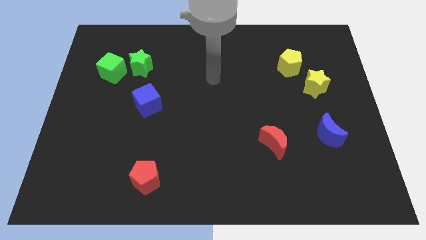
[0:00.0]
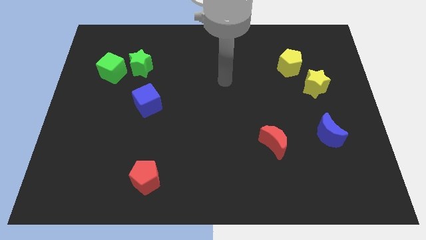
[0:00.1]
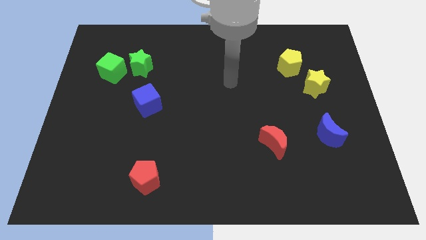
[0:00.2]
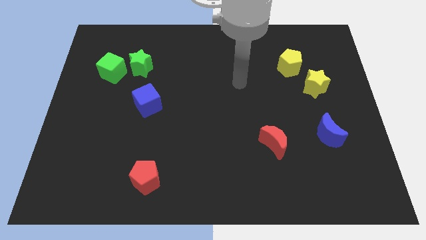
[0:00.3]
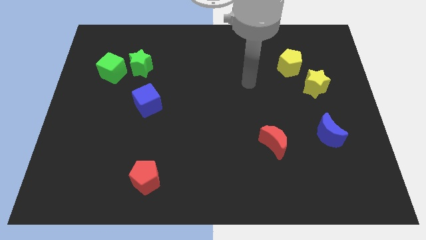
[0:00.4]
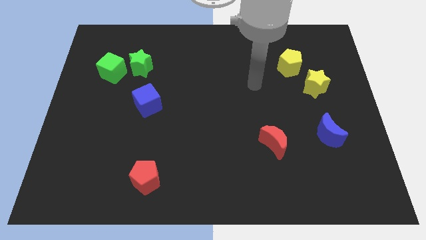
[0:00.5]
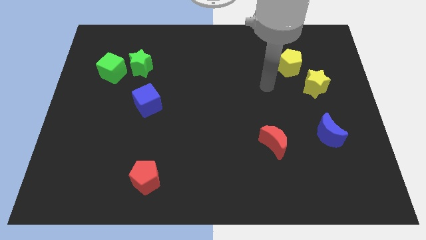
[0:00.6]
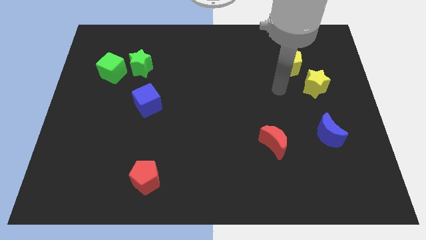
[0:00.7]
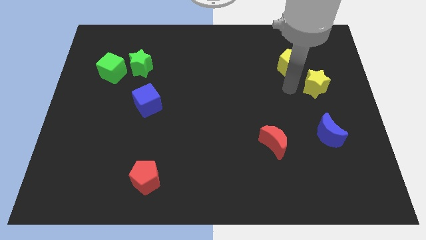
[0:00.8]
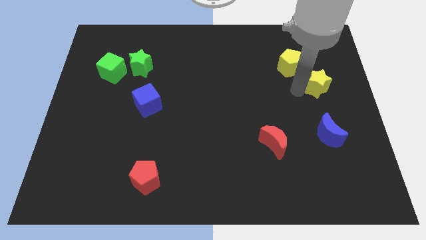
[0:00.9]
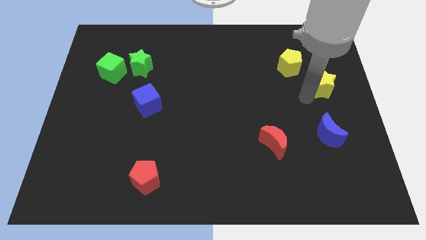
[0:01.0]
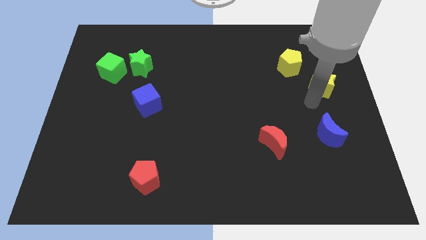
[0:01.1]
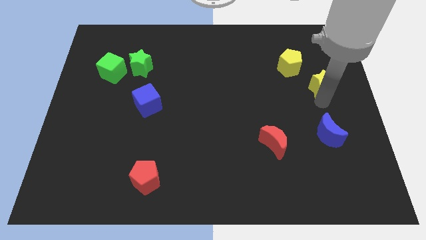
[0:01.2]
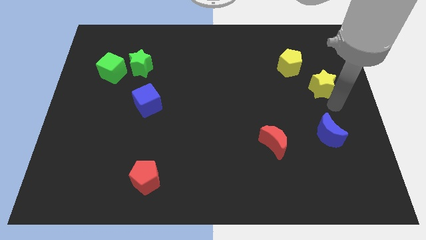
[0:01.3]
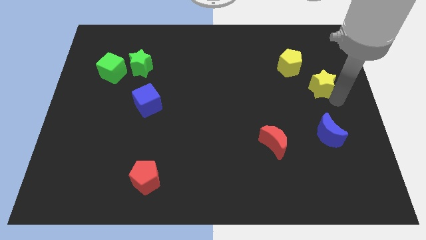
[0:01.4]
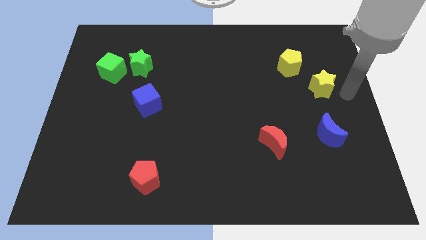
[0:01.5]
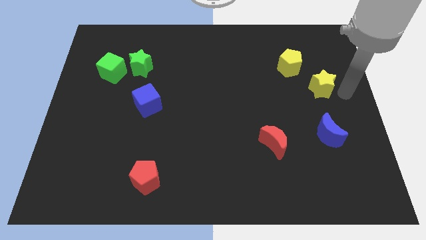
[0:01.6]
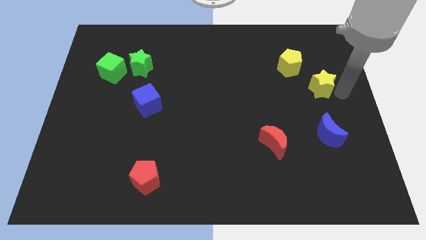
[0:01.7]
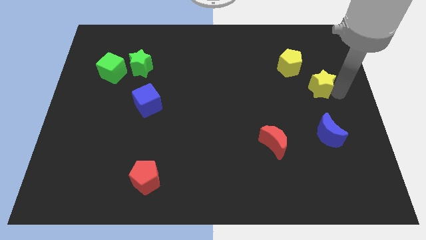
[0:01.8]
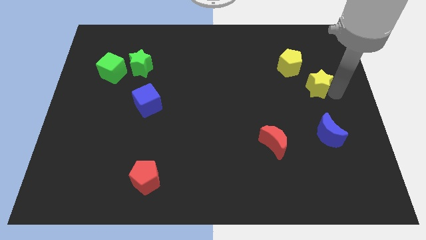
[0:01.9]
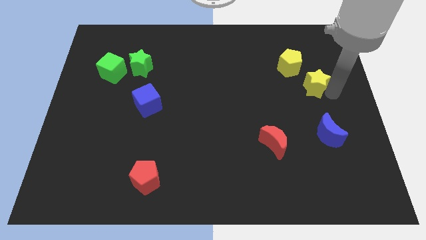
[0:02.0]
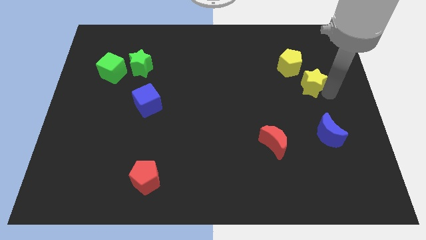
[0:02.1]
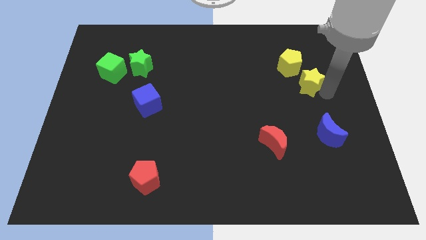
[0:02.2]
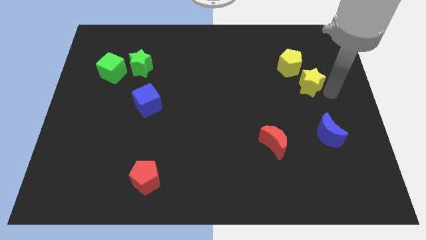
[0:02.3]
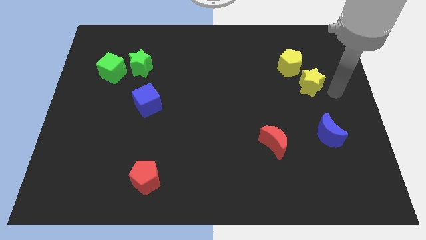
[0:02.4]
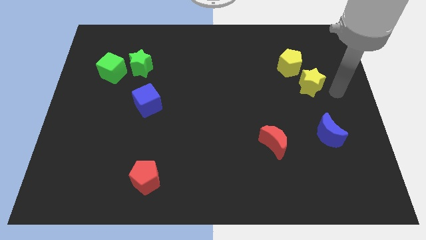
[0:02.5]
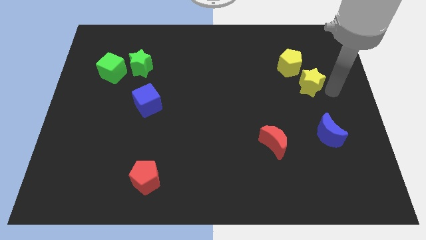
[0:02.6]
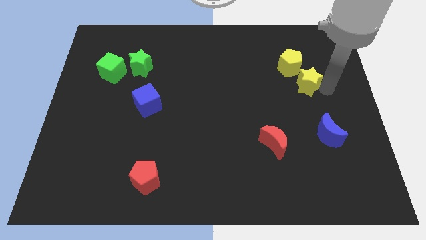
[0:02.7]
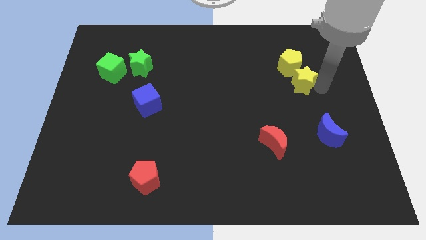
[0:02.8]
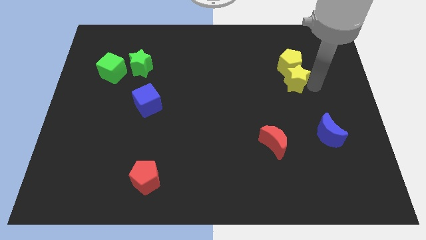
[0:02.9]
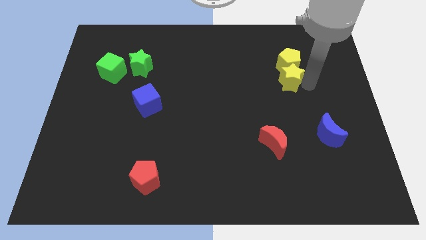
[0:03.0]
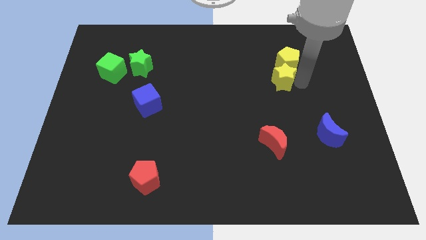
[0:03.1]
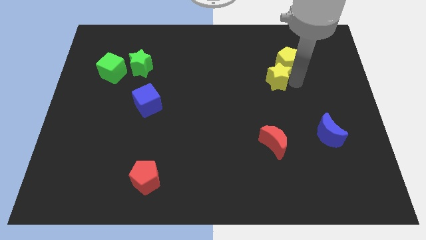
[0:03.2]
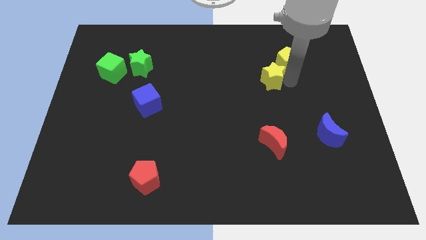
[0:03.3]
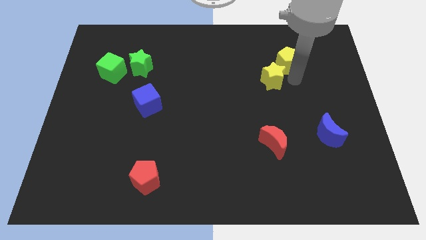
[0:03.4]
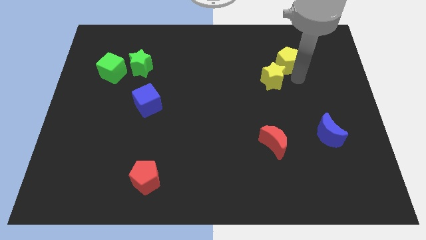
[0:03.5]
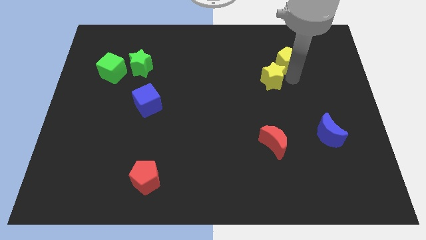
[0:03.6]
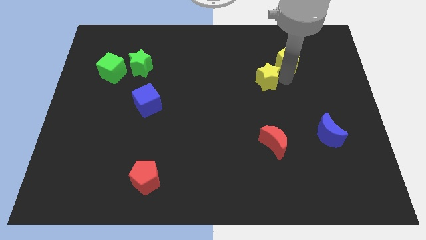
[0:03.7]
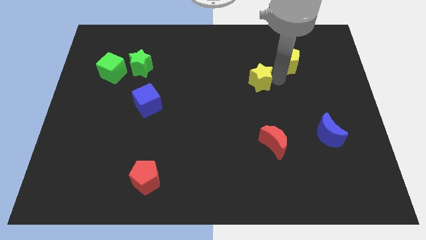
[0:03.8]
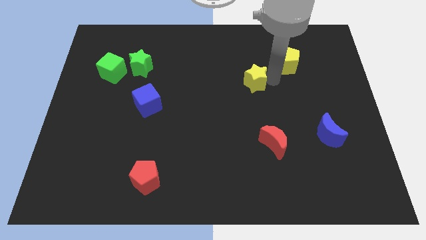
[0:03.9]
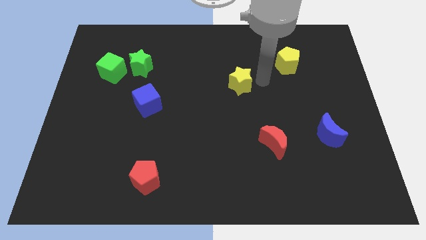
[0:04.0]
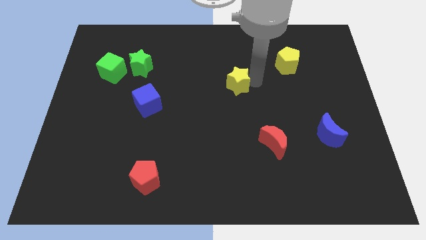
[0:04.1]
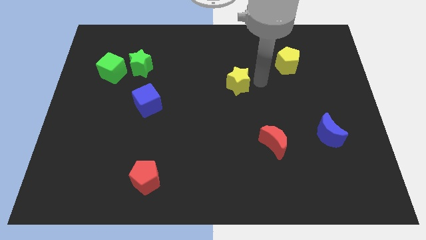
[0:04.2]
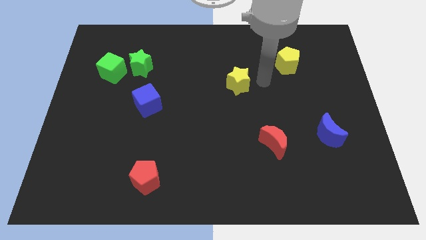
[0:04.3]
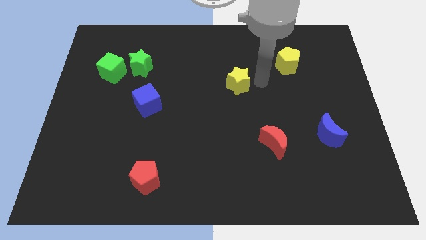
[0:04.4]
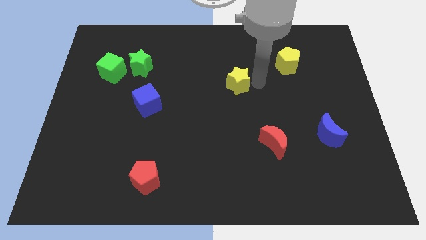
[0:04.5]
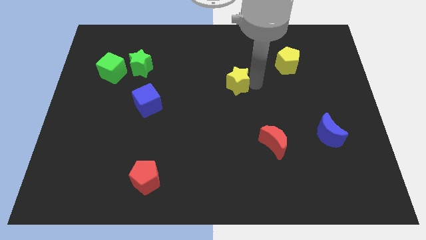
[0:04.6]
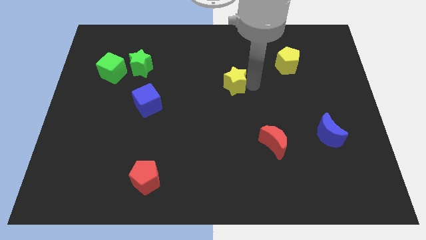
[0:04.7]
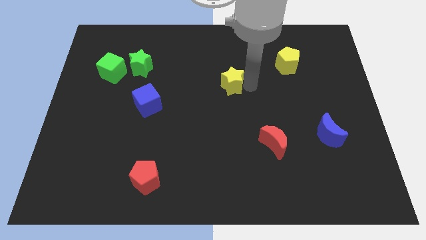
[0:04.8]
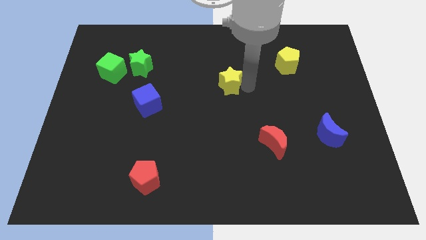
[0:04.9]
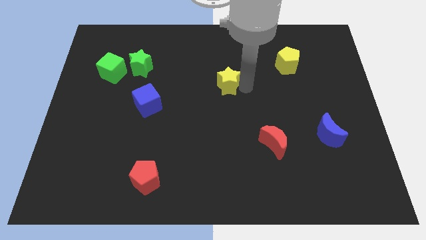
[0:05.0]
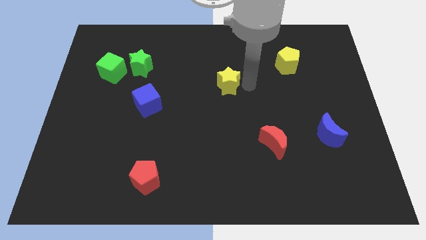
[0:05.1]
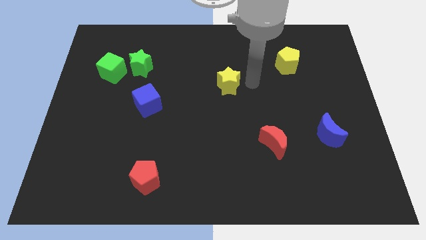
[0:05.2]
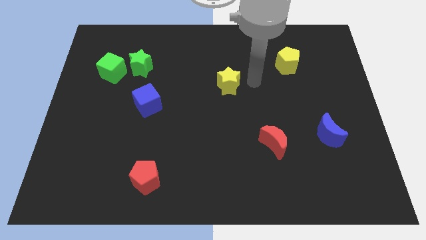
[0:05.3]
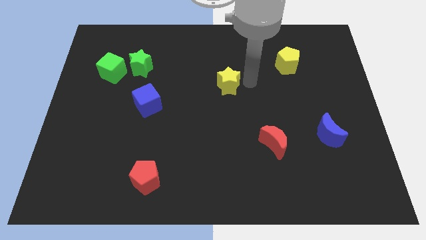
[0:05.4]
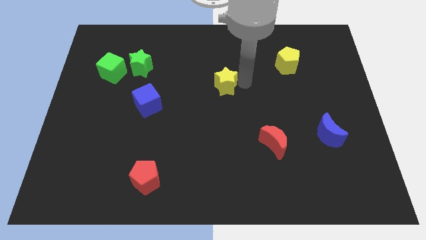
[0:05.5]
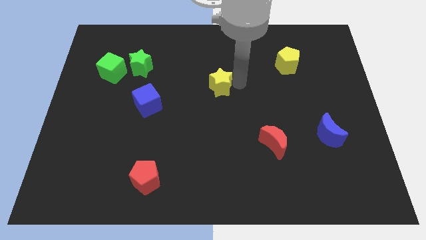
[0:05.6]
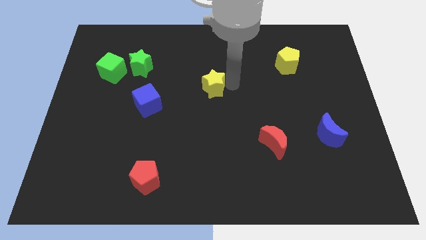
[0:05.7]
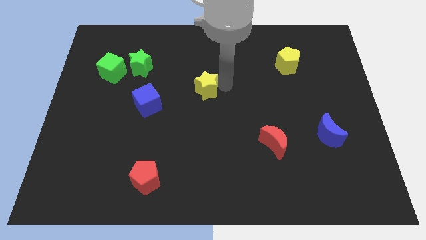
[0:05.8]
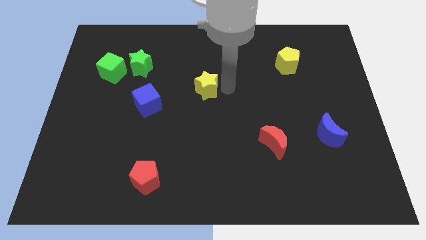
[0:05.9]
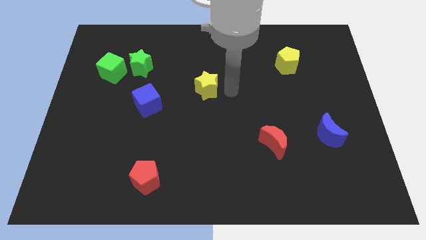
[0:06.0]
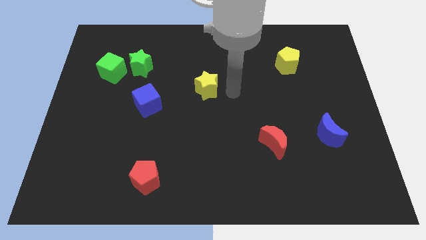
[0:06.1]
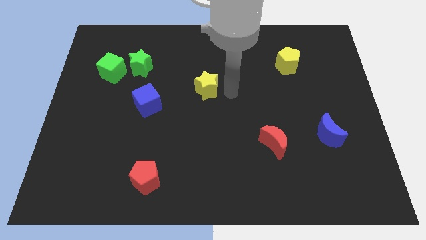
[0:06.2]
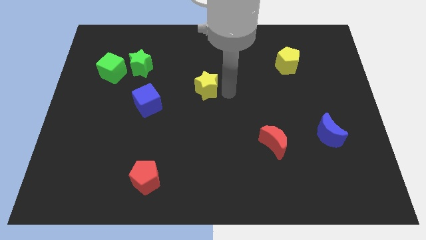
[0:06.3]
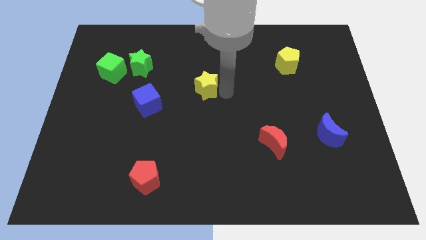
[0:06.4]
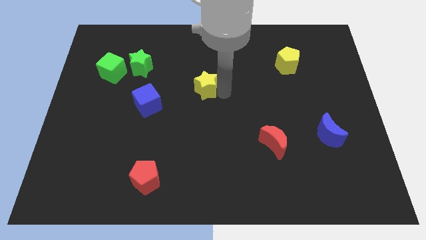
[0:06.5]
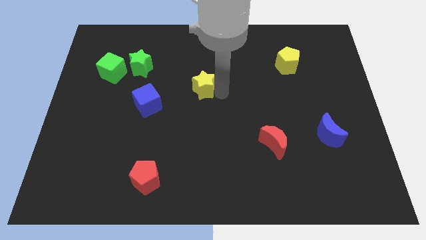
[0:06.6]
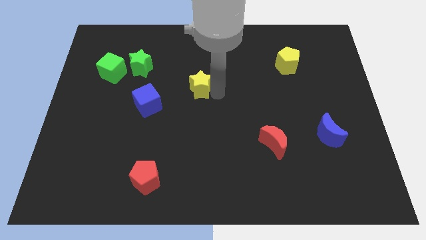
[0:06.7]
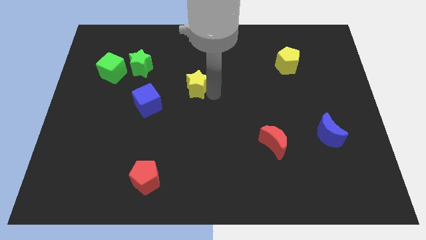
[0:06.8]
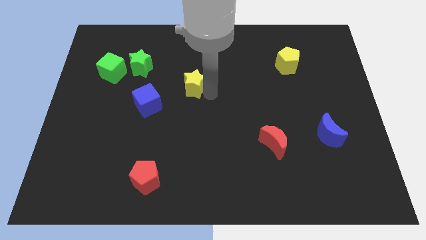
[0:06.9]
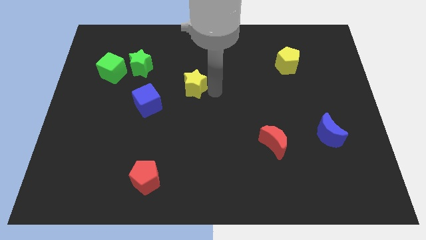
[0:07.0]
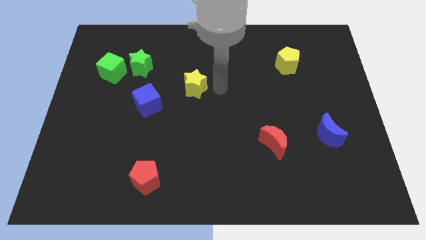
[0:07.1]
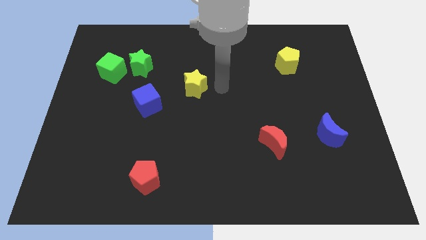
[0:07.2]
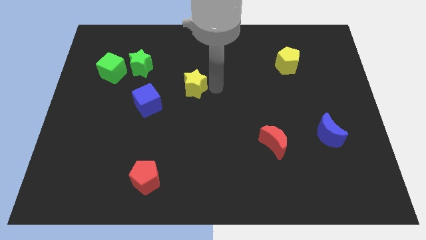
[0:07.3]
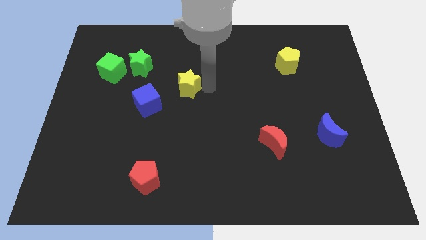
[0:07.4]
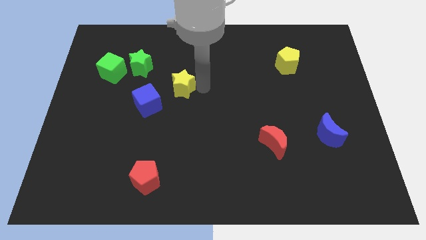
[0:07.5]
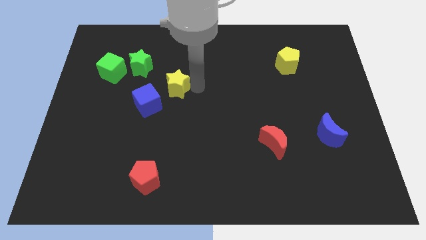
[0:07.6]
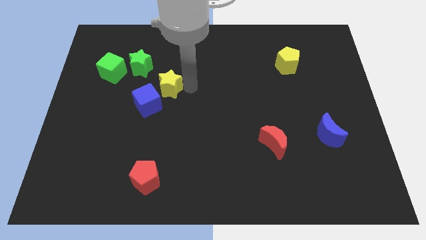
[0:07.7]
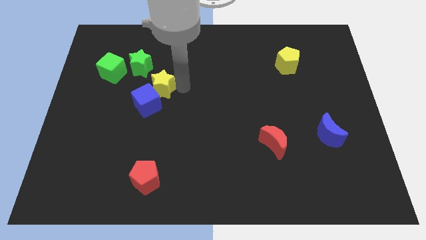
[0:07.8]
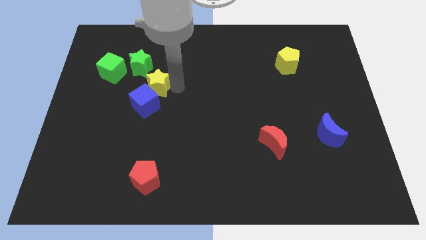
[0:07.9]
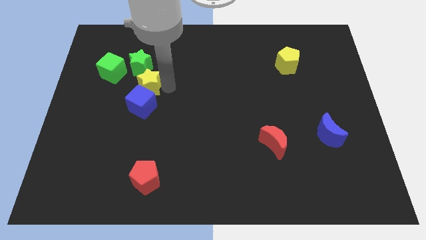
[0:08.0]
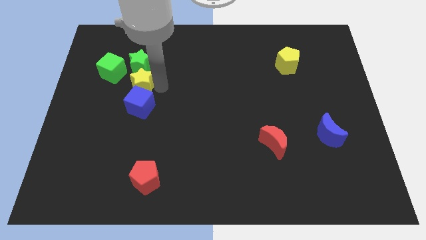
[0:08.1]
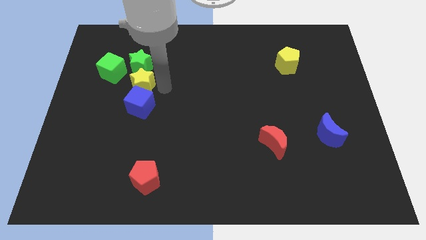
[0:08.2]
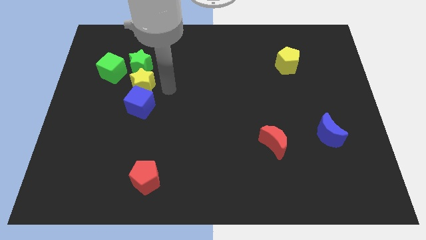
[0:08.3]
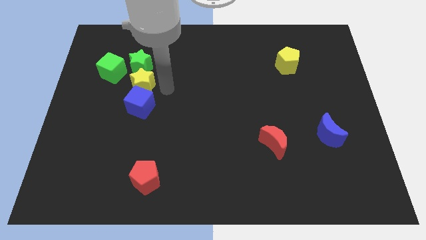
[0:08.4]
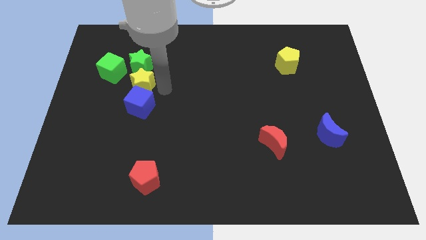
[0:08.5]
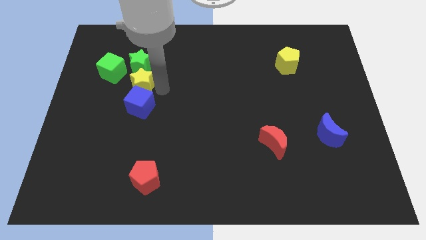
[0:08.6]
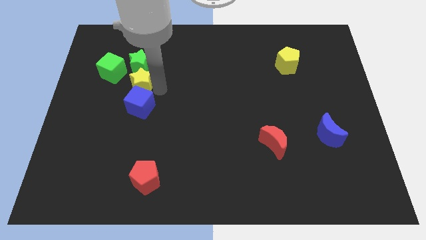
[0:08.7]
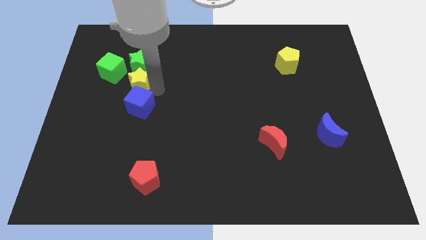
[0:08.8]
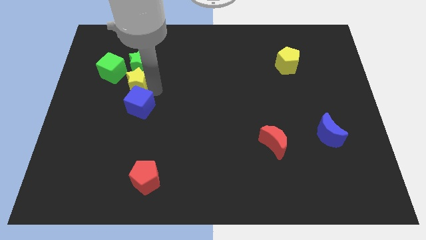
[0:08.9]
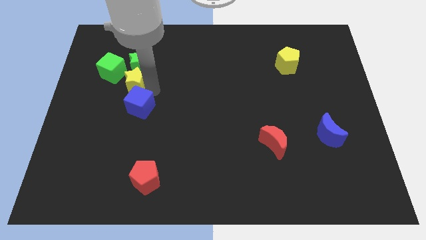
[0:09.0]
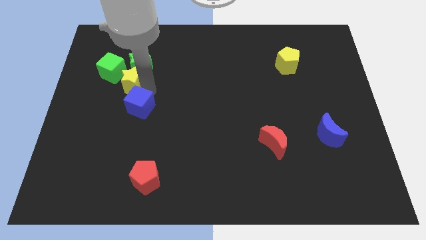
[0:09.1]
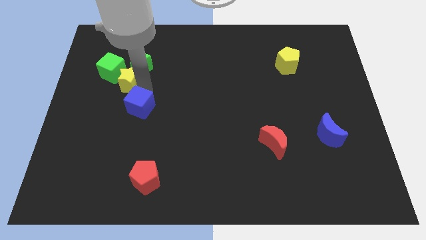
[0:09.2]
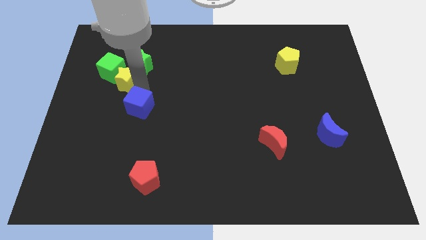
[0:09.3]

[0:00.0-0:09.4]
move the yellow star to the green cube
